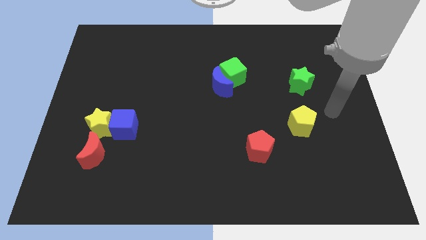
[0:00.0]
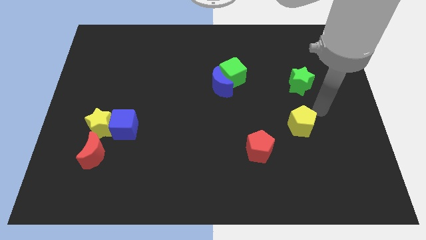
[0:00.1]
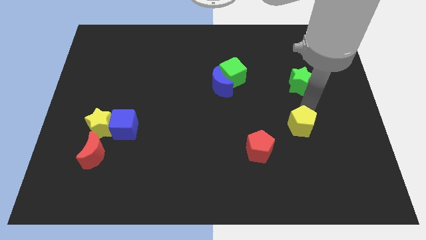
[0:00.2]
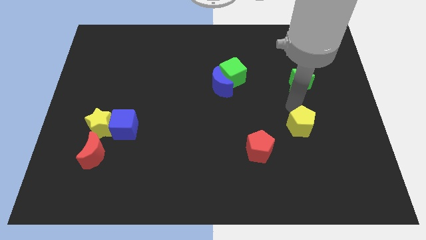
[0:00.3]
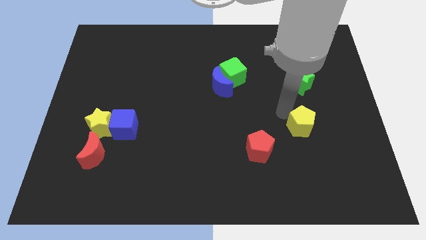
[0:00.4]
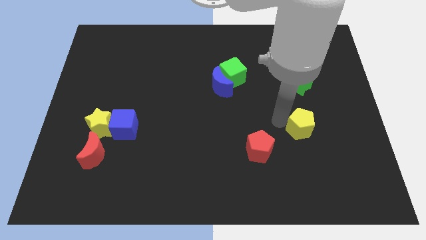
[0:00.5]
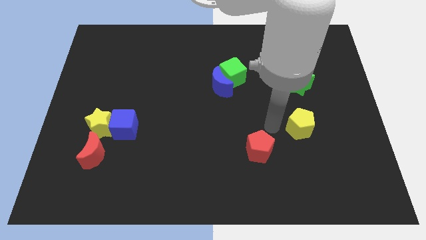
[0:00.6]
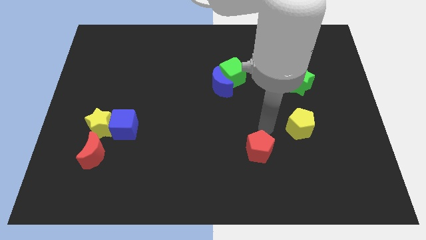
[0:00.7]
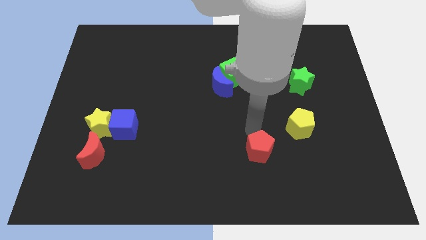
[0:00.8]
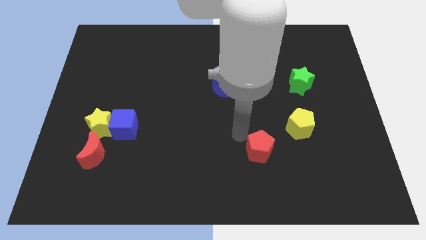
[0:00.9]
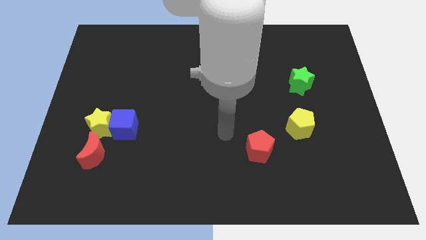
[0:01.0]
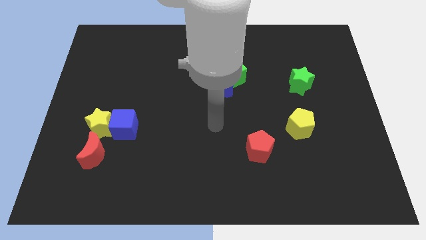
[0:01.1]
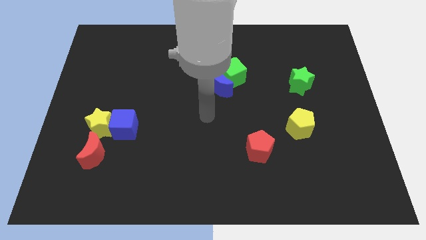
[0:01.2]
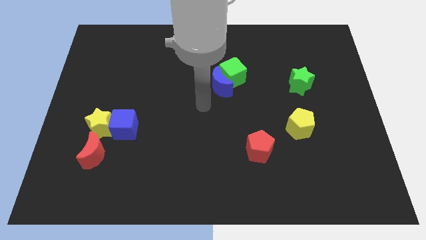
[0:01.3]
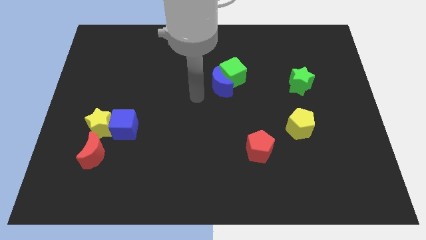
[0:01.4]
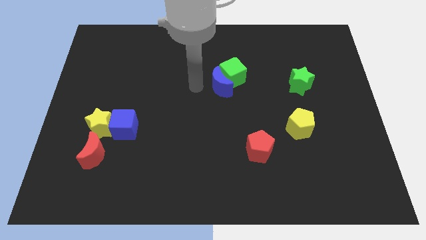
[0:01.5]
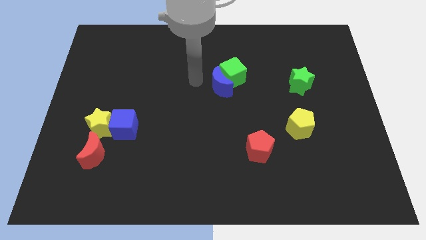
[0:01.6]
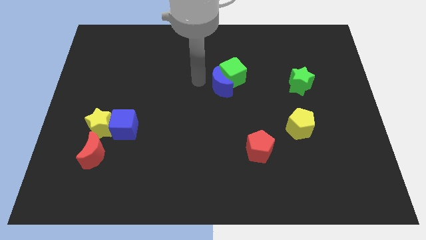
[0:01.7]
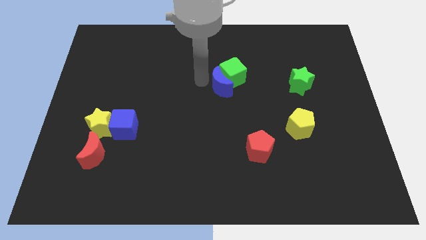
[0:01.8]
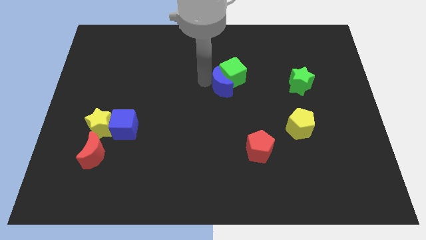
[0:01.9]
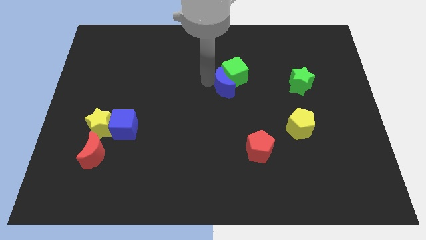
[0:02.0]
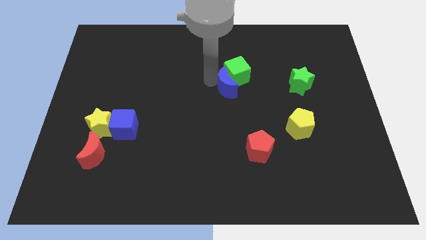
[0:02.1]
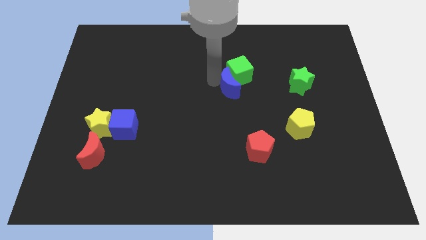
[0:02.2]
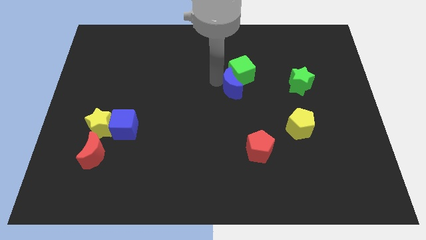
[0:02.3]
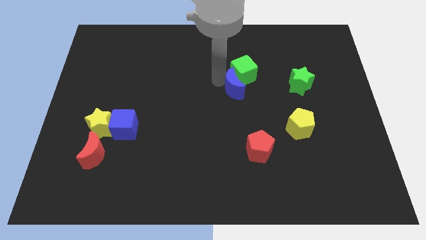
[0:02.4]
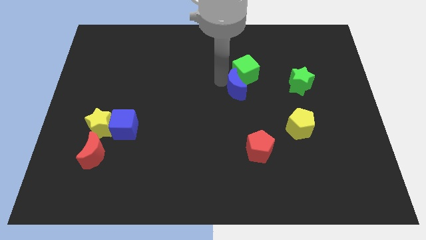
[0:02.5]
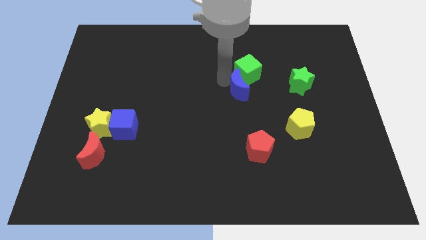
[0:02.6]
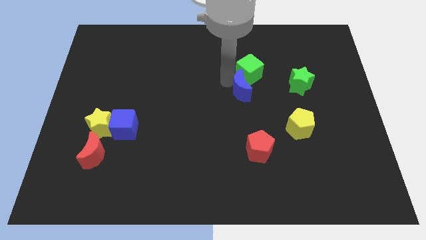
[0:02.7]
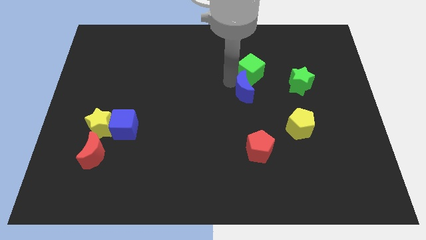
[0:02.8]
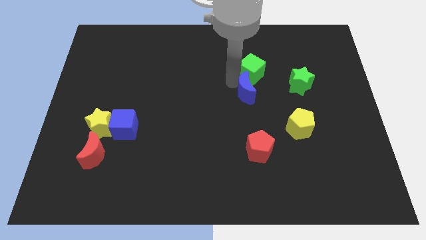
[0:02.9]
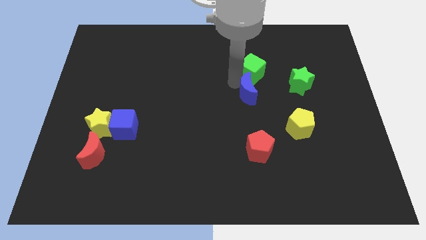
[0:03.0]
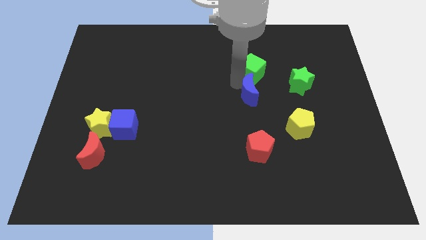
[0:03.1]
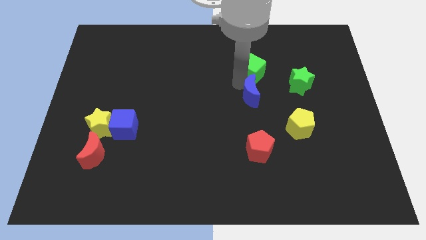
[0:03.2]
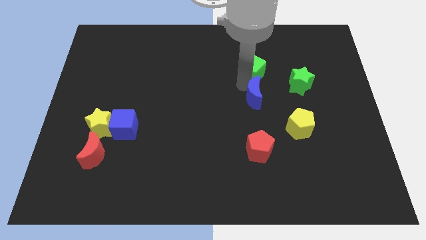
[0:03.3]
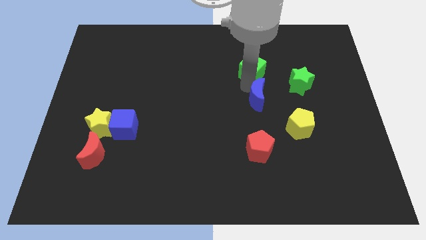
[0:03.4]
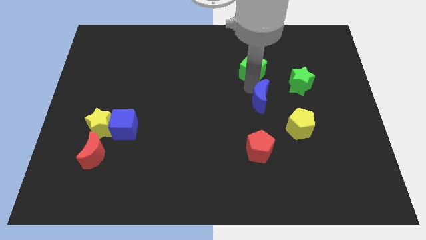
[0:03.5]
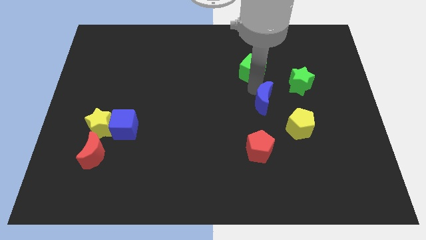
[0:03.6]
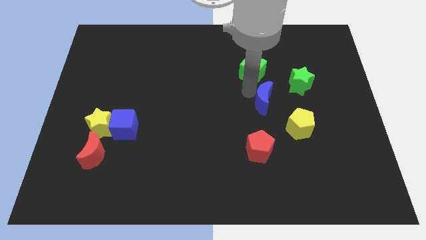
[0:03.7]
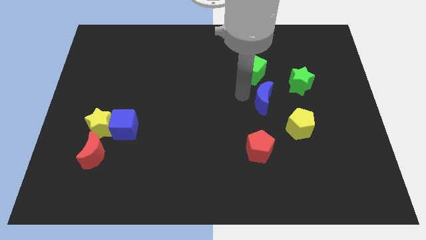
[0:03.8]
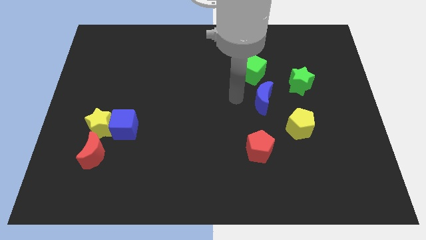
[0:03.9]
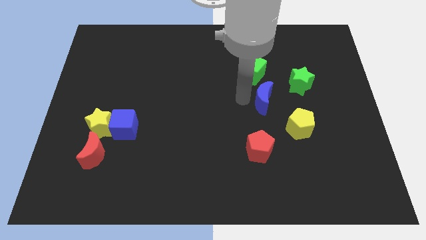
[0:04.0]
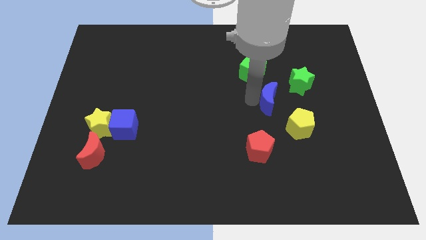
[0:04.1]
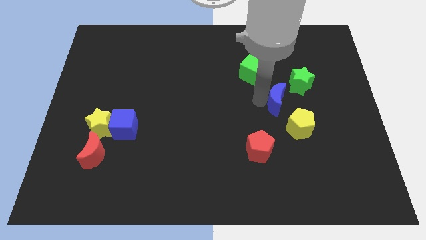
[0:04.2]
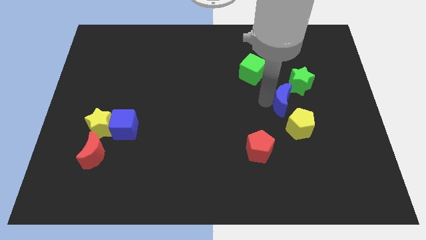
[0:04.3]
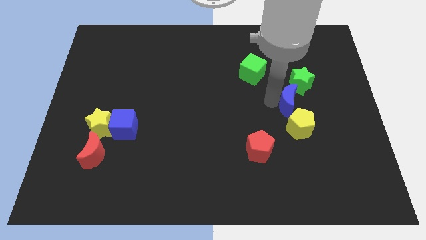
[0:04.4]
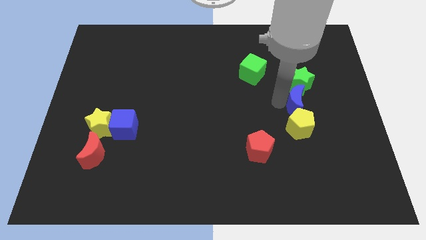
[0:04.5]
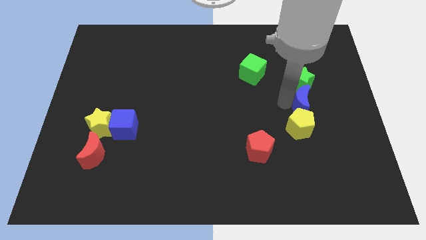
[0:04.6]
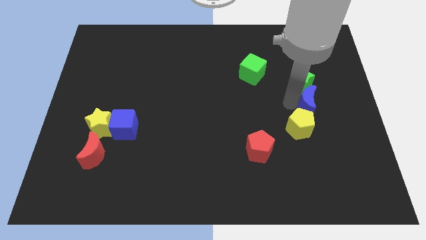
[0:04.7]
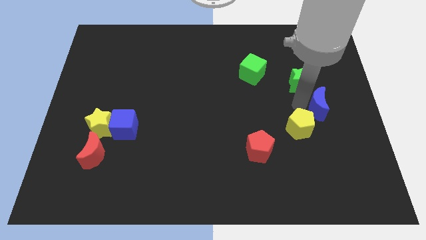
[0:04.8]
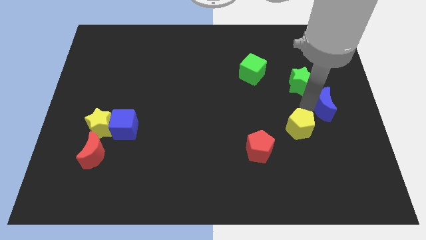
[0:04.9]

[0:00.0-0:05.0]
move the blue moon to the right side of the board

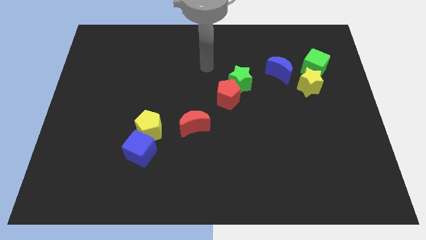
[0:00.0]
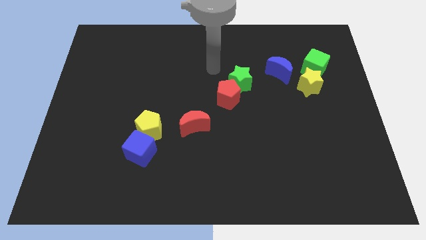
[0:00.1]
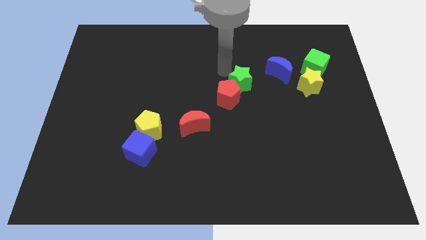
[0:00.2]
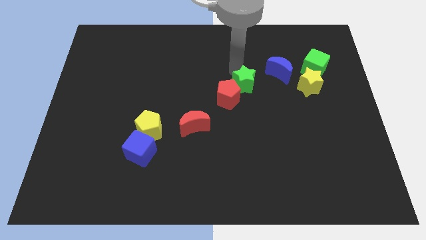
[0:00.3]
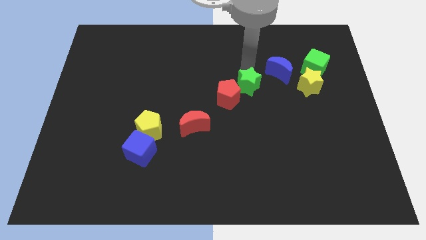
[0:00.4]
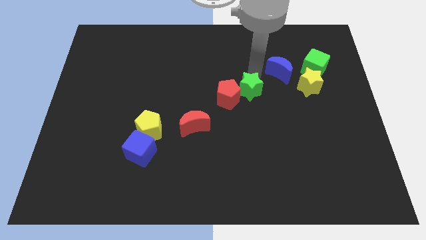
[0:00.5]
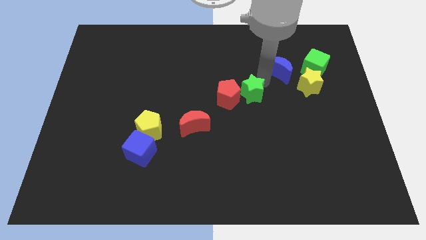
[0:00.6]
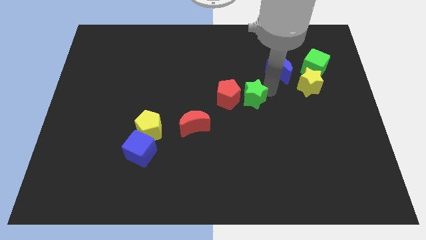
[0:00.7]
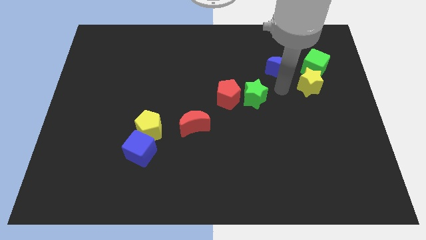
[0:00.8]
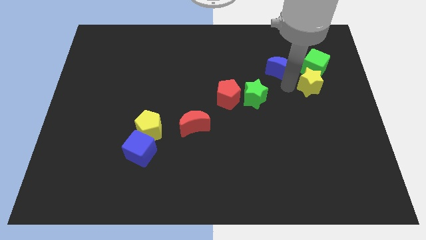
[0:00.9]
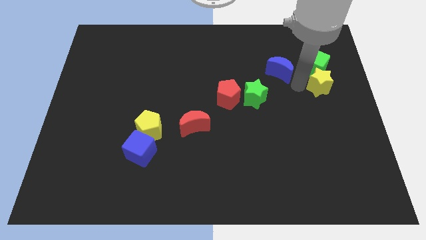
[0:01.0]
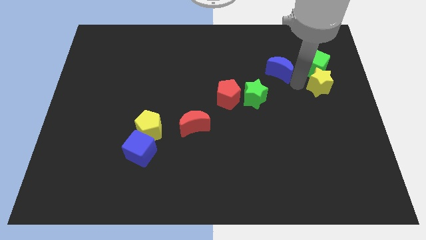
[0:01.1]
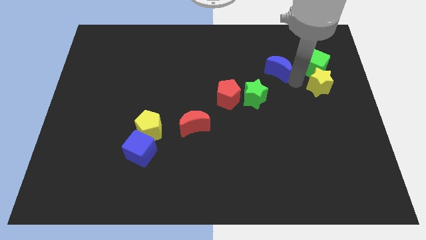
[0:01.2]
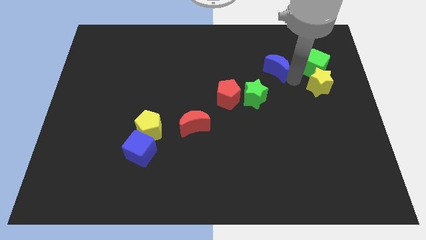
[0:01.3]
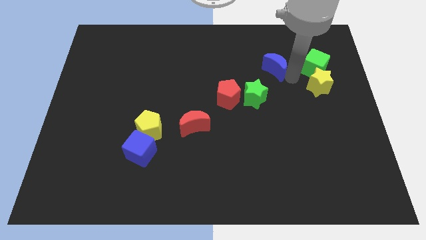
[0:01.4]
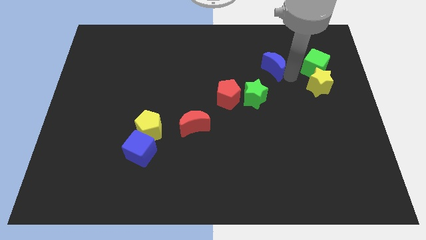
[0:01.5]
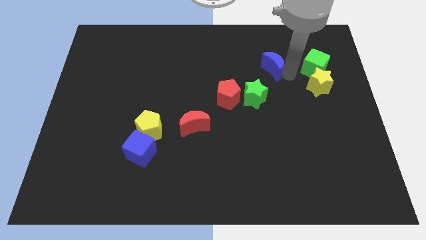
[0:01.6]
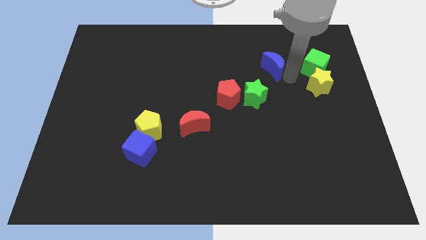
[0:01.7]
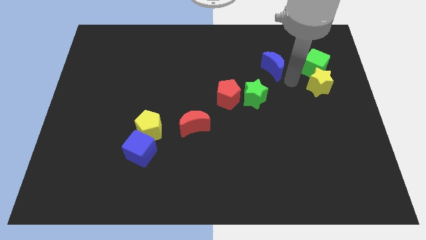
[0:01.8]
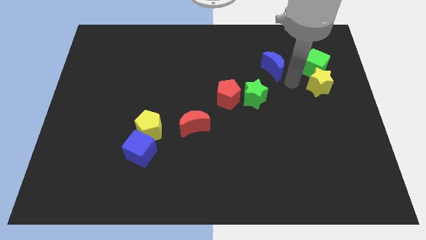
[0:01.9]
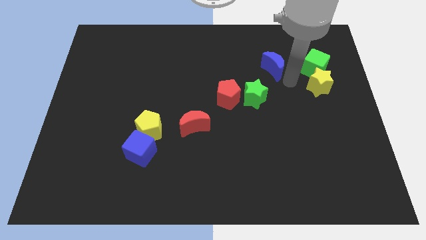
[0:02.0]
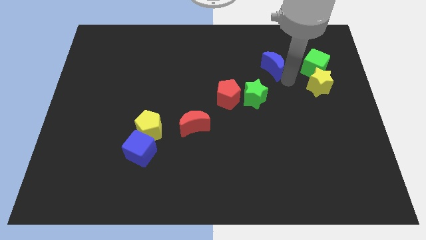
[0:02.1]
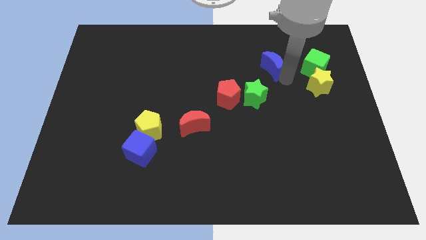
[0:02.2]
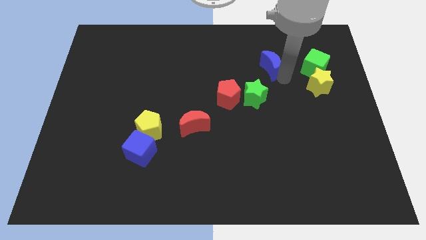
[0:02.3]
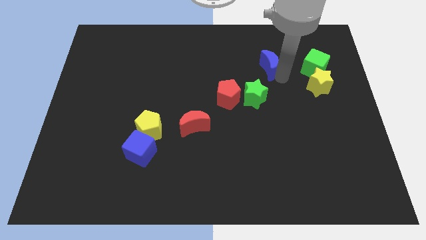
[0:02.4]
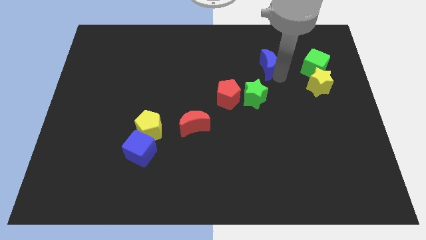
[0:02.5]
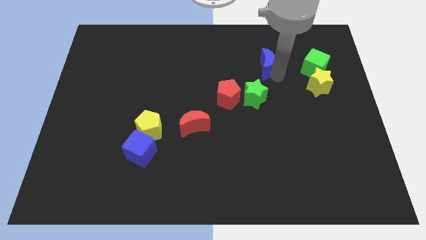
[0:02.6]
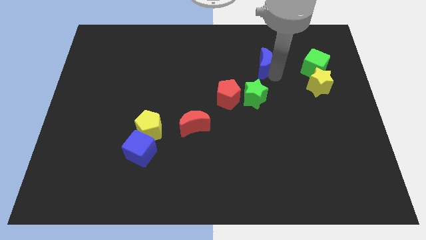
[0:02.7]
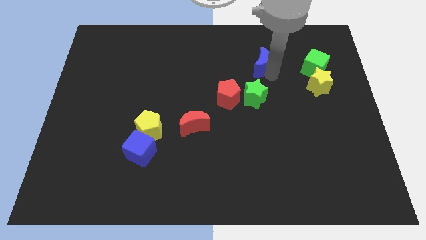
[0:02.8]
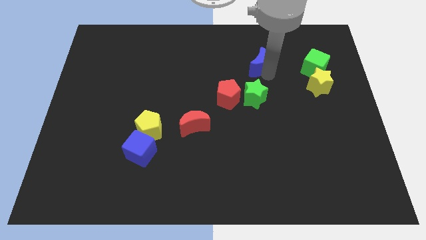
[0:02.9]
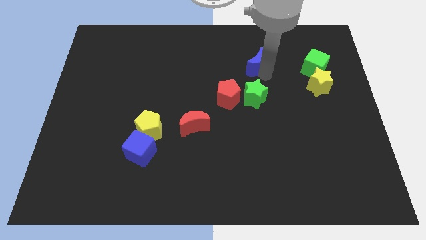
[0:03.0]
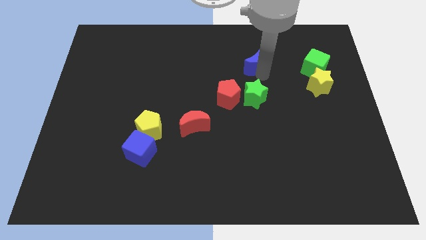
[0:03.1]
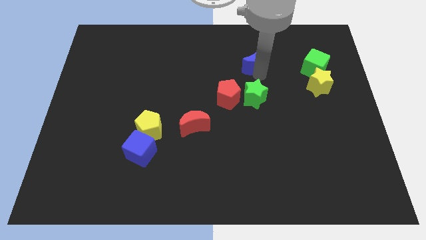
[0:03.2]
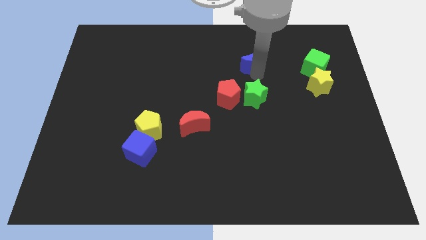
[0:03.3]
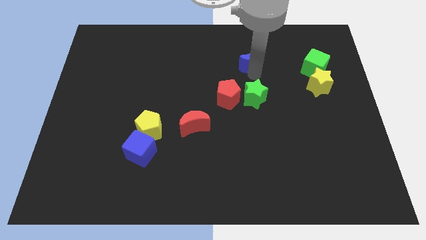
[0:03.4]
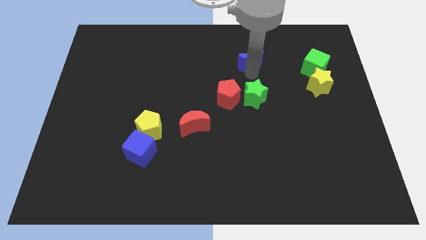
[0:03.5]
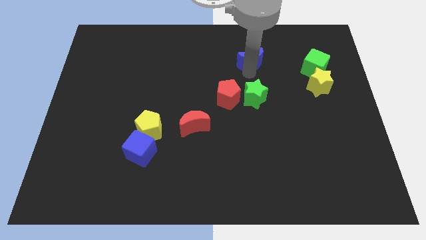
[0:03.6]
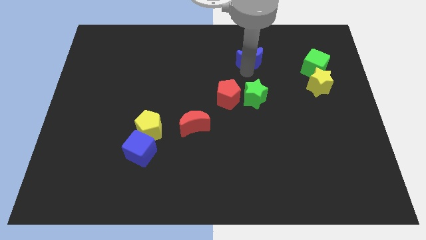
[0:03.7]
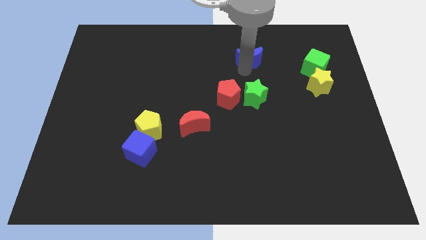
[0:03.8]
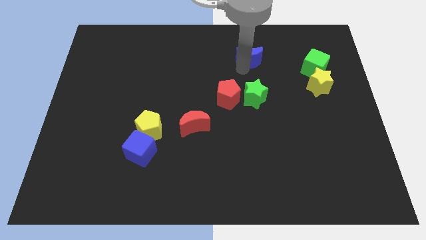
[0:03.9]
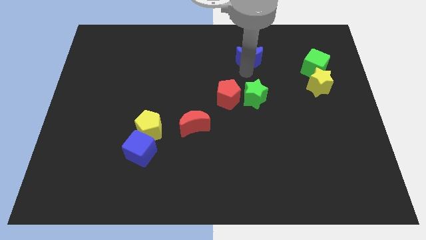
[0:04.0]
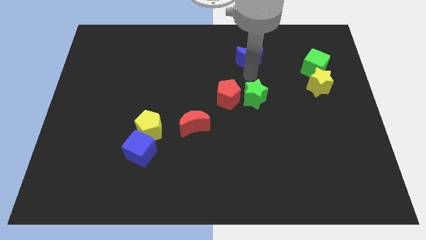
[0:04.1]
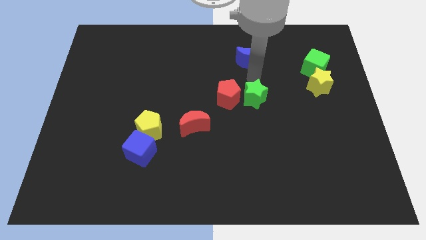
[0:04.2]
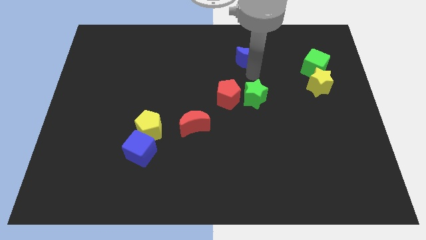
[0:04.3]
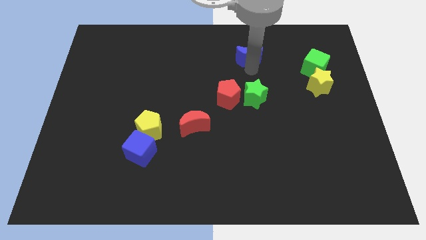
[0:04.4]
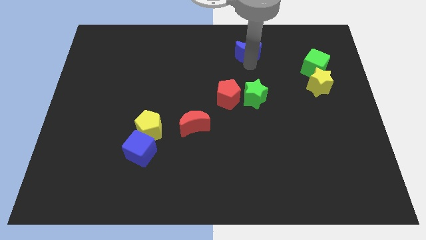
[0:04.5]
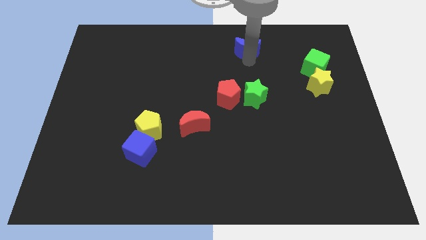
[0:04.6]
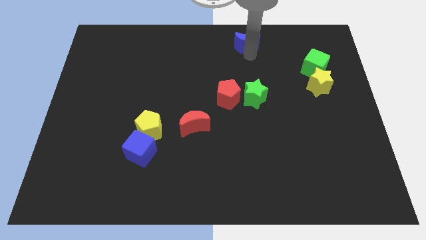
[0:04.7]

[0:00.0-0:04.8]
push the blue moon to the towards your base
